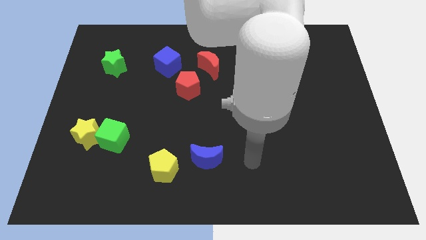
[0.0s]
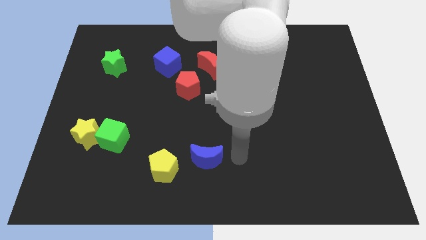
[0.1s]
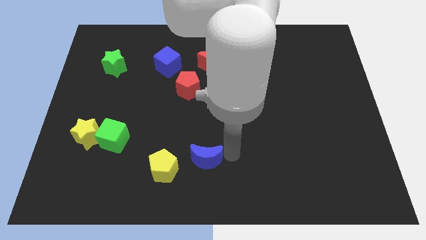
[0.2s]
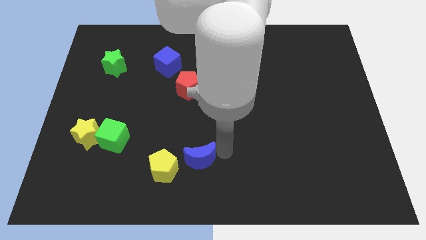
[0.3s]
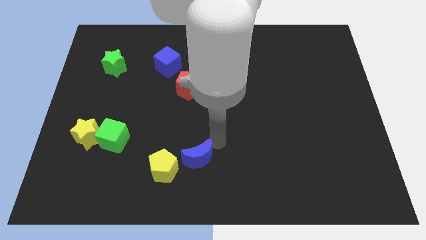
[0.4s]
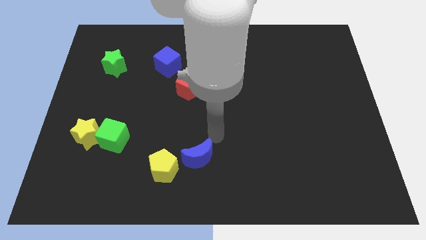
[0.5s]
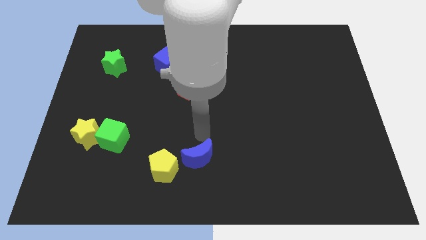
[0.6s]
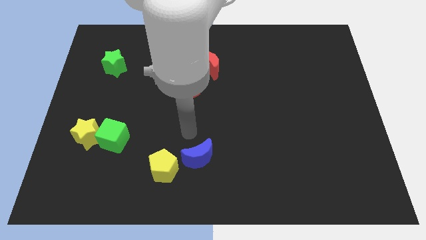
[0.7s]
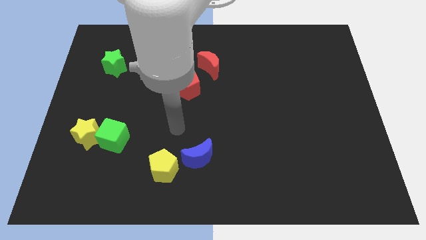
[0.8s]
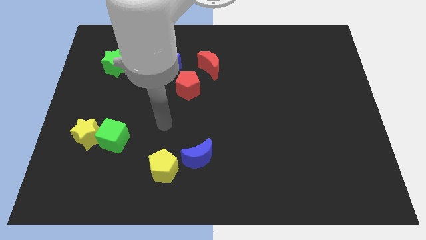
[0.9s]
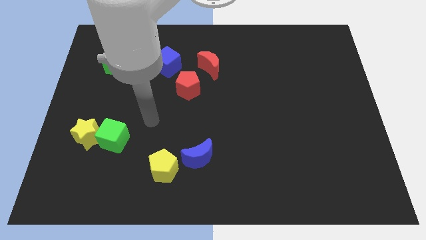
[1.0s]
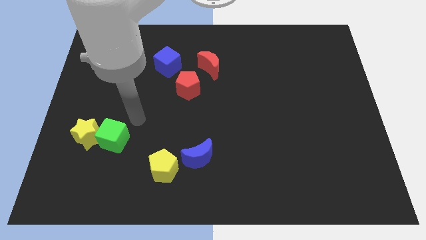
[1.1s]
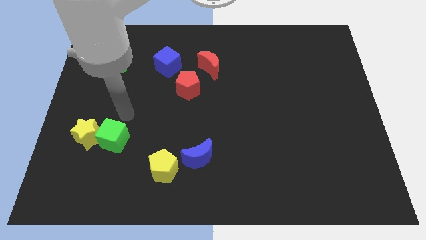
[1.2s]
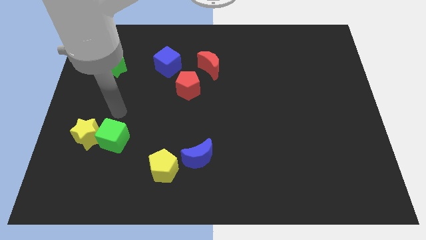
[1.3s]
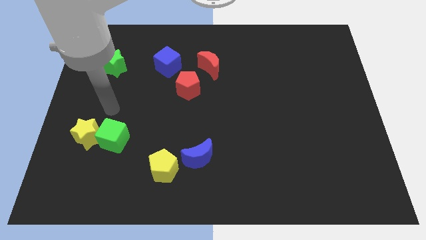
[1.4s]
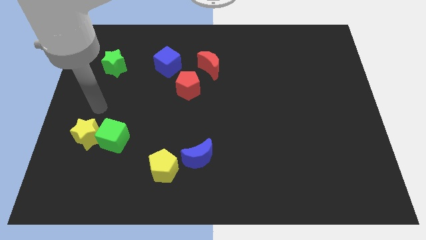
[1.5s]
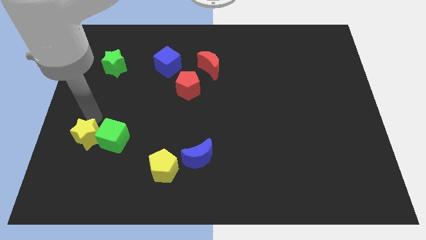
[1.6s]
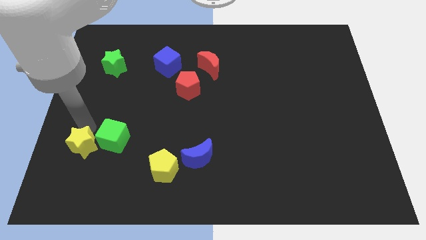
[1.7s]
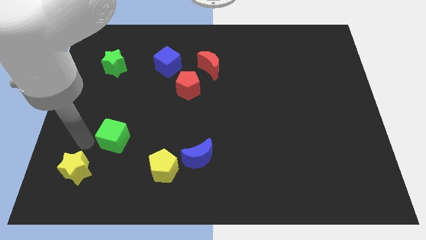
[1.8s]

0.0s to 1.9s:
move the green cube away from the yellow star

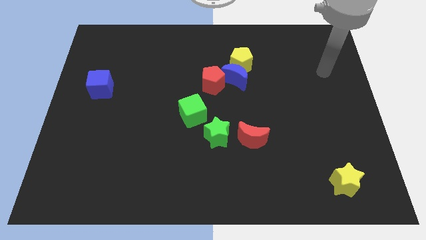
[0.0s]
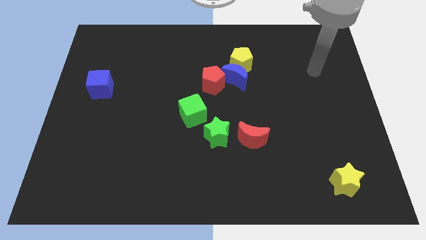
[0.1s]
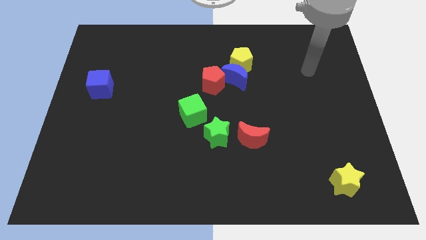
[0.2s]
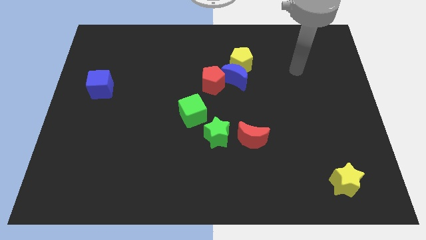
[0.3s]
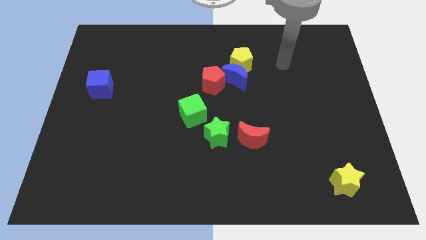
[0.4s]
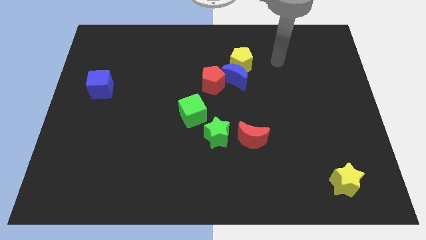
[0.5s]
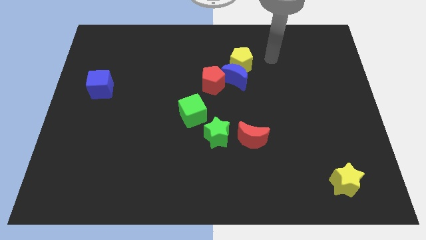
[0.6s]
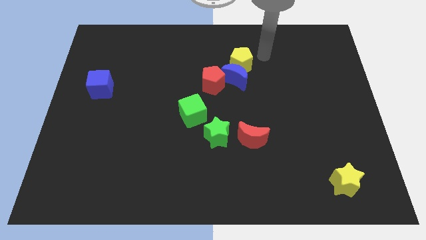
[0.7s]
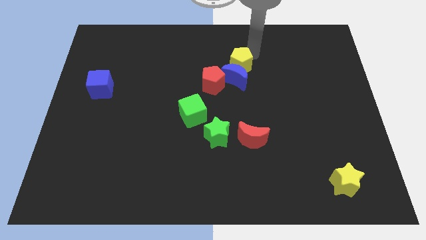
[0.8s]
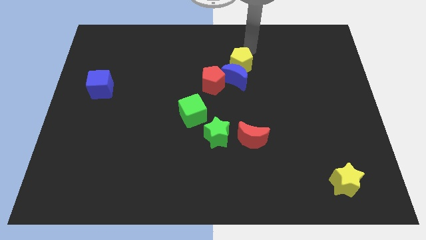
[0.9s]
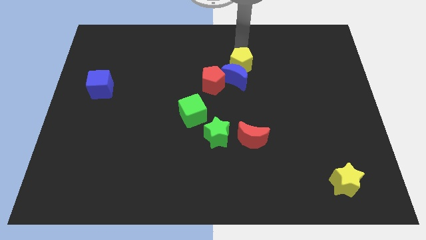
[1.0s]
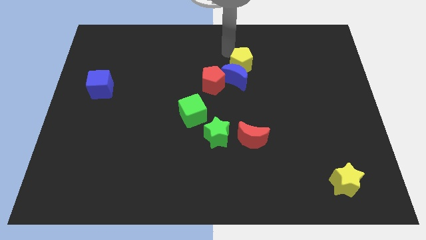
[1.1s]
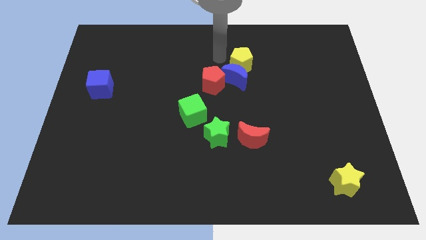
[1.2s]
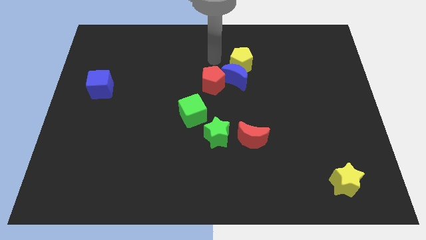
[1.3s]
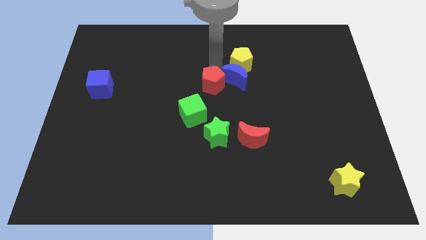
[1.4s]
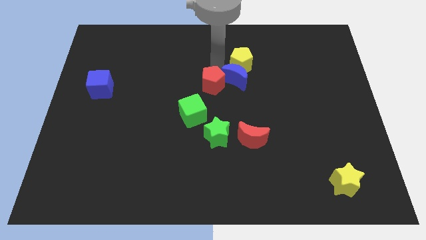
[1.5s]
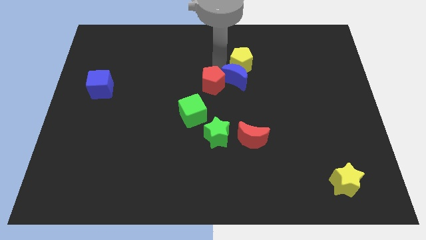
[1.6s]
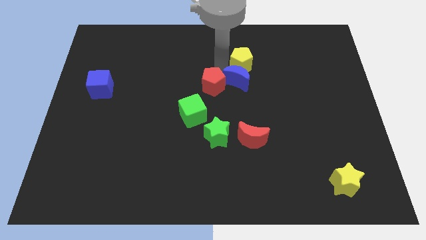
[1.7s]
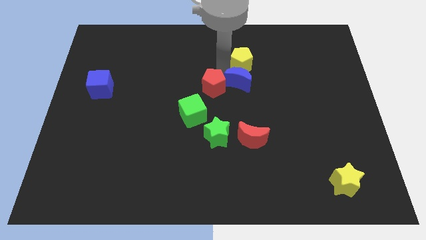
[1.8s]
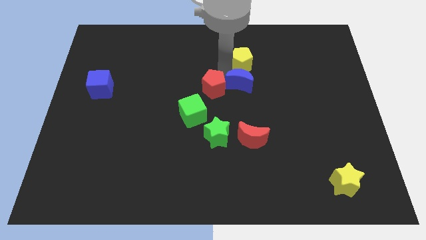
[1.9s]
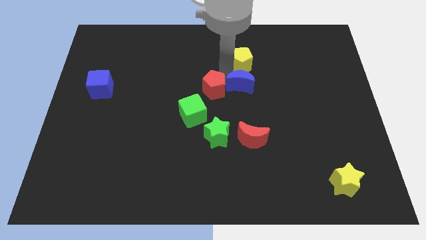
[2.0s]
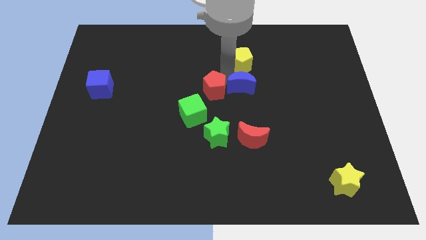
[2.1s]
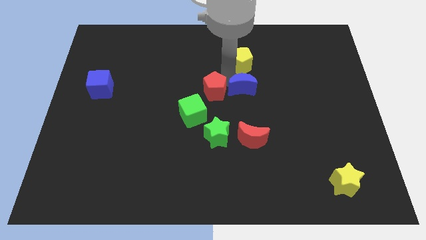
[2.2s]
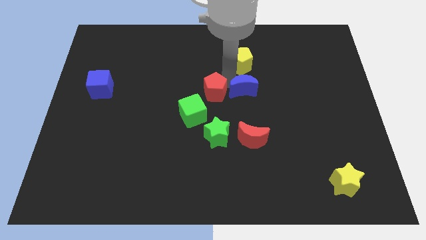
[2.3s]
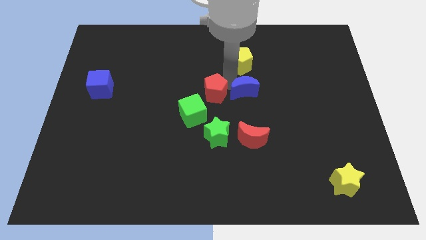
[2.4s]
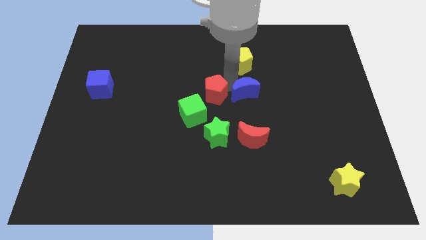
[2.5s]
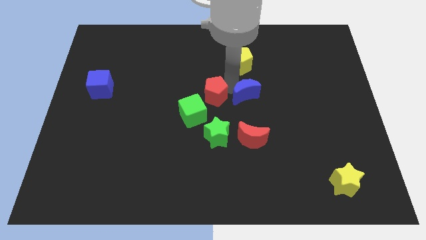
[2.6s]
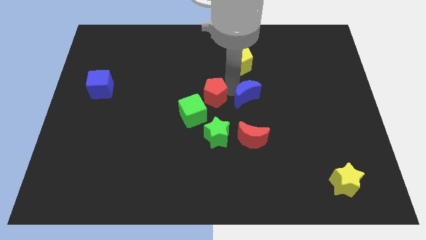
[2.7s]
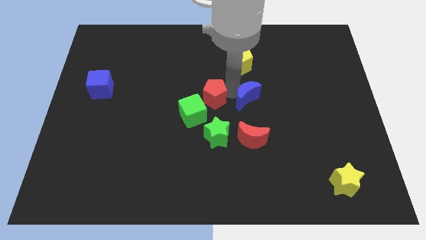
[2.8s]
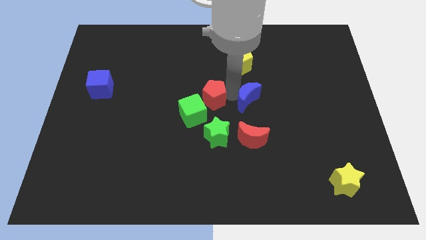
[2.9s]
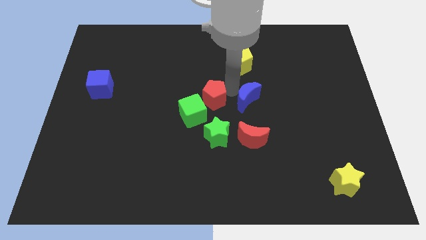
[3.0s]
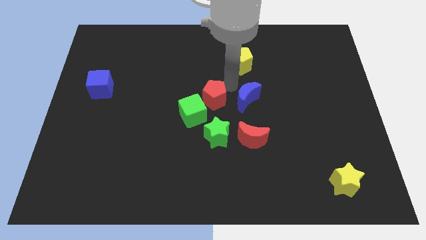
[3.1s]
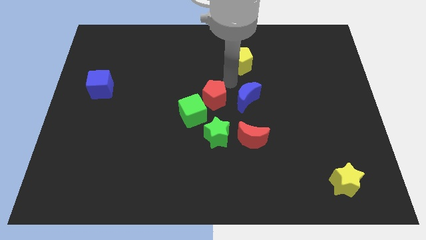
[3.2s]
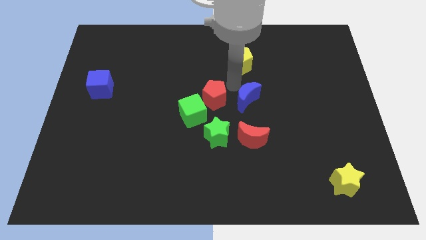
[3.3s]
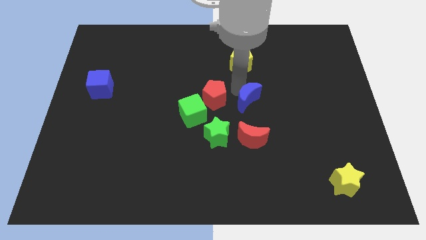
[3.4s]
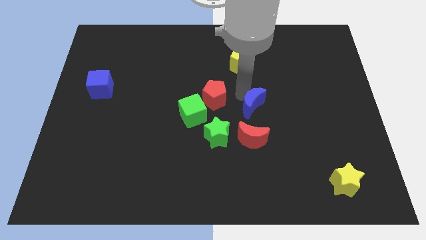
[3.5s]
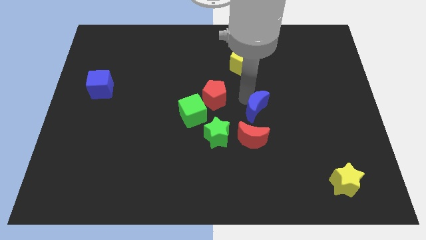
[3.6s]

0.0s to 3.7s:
pull the blue moon apart from the yellow pentagon and red pentagon

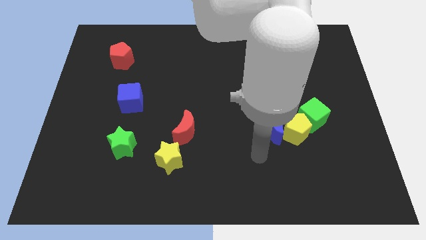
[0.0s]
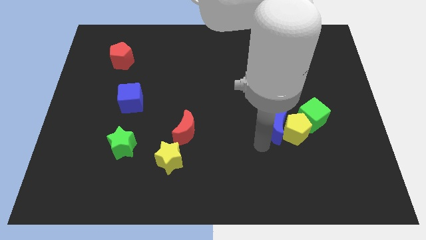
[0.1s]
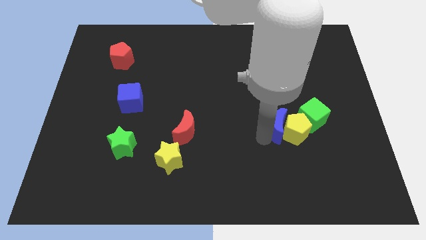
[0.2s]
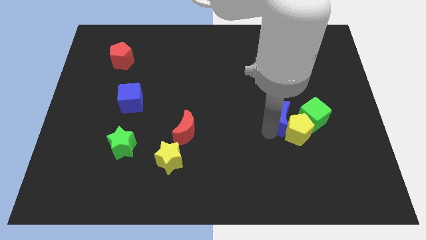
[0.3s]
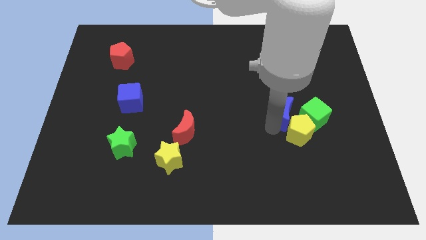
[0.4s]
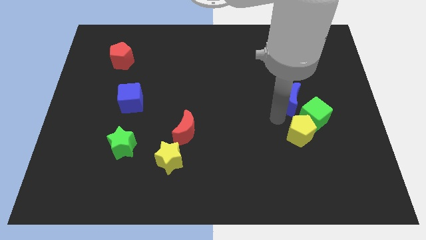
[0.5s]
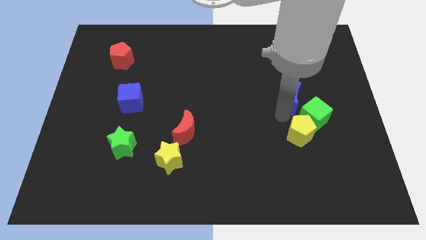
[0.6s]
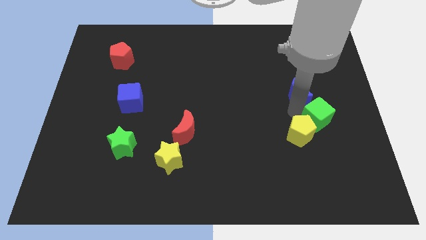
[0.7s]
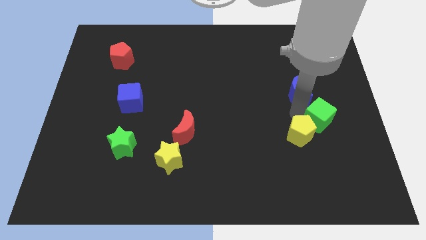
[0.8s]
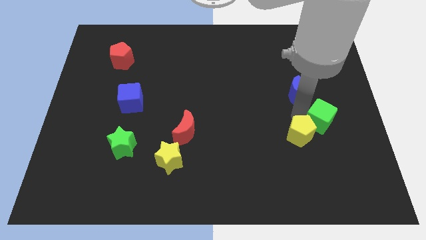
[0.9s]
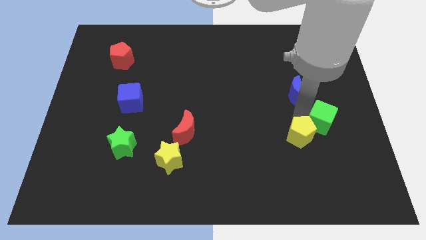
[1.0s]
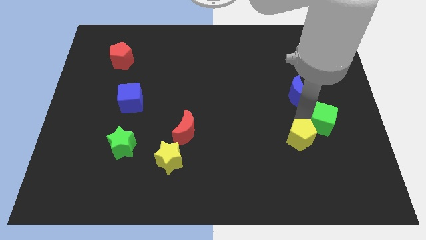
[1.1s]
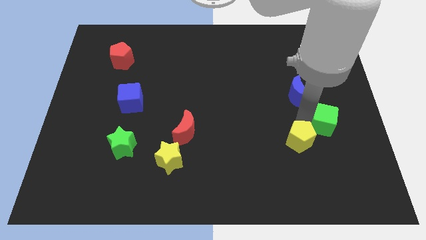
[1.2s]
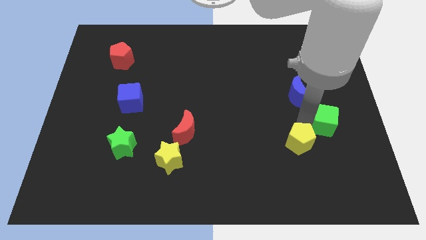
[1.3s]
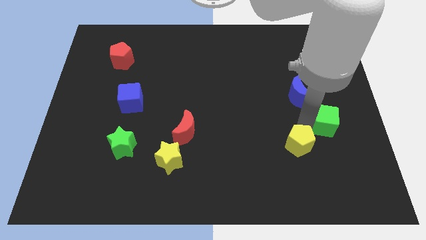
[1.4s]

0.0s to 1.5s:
separate the yellow pentagon from the blue moon and green cube

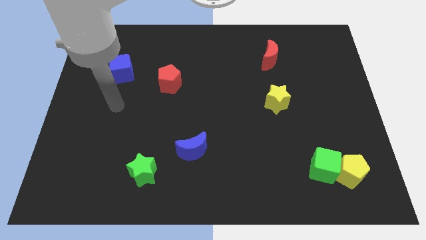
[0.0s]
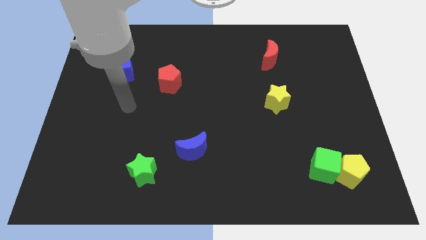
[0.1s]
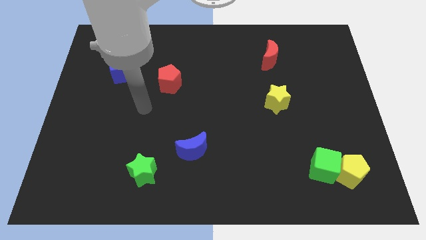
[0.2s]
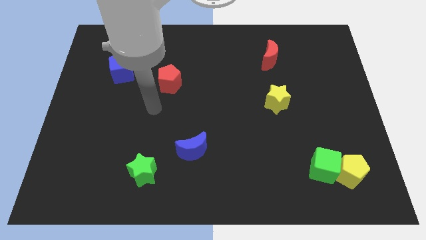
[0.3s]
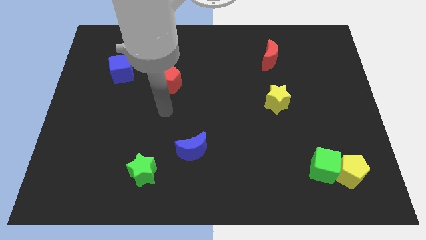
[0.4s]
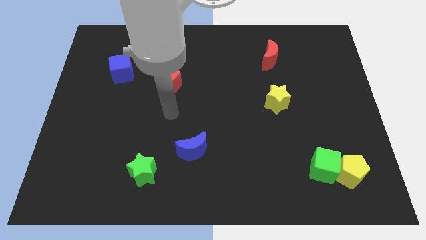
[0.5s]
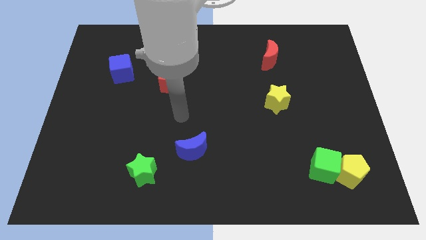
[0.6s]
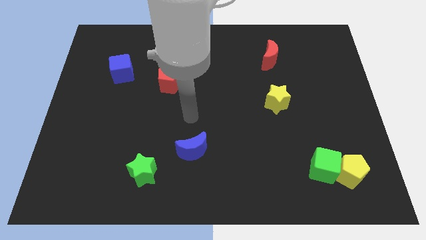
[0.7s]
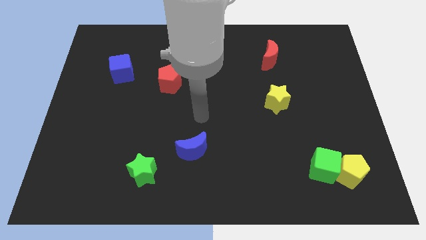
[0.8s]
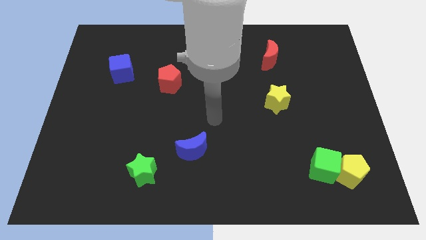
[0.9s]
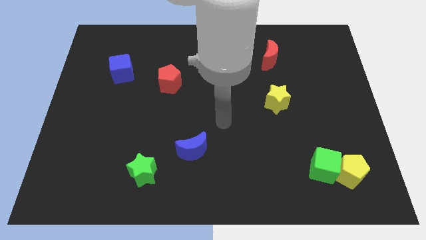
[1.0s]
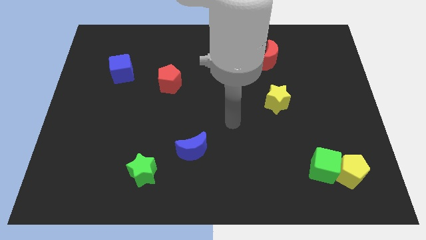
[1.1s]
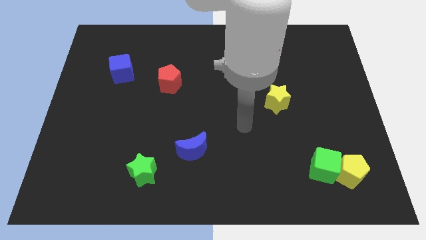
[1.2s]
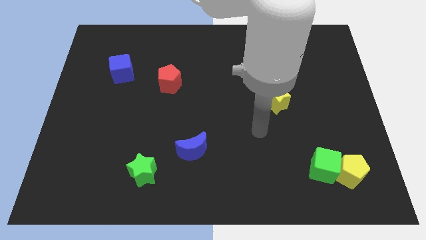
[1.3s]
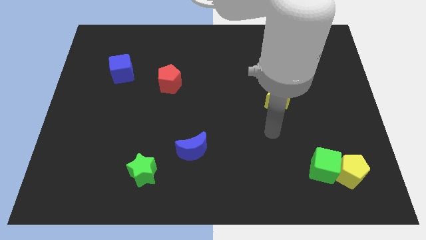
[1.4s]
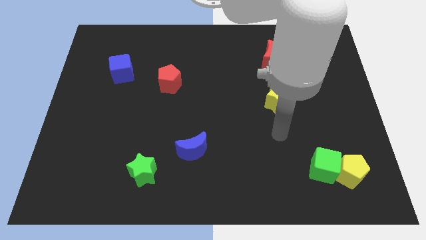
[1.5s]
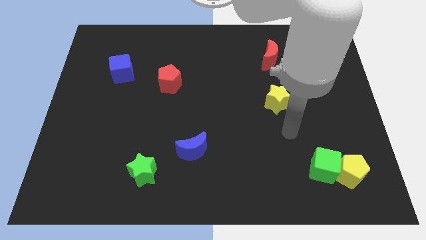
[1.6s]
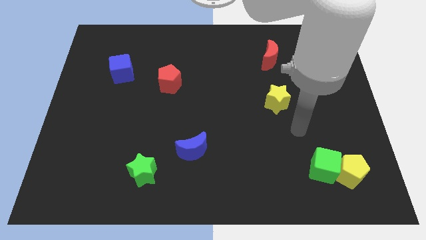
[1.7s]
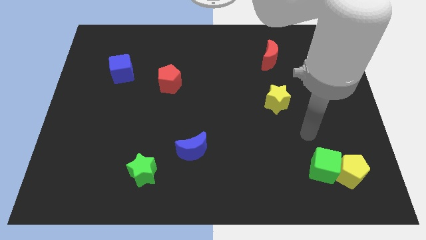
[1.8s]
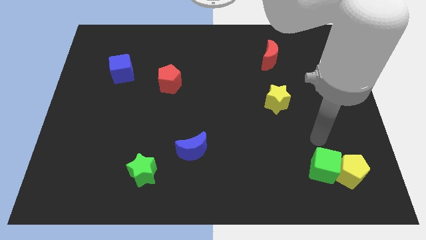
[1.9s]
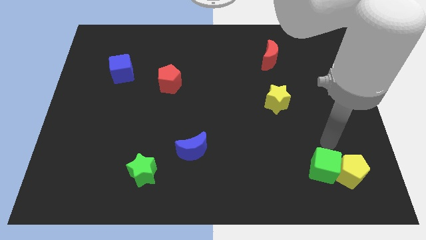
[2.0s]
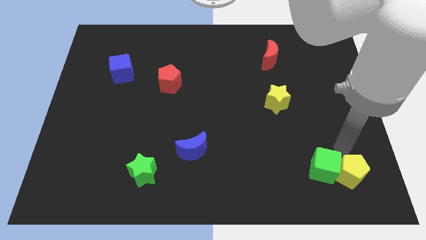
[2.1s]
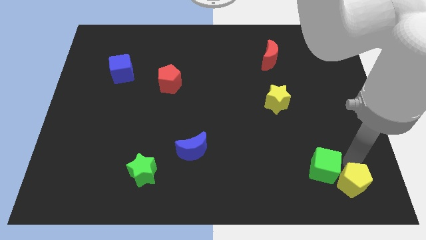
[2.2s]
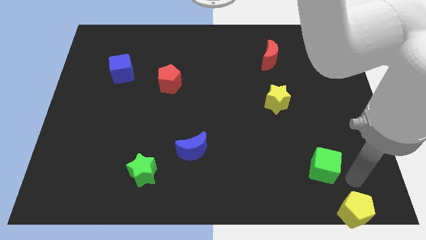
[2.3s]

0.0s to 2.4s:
separate the green cube from the yellow pentagon
